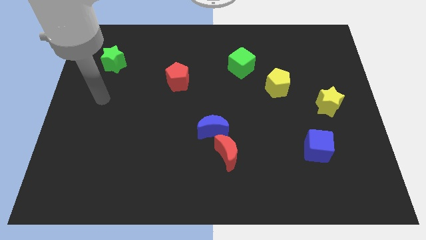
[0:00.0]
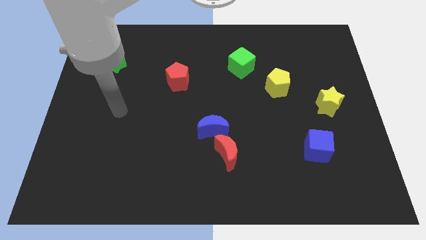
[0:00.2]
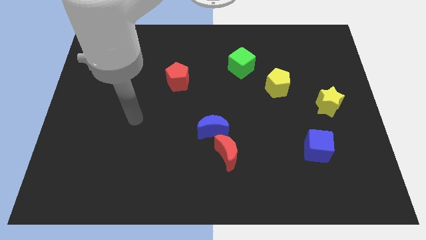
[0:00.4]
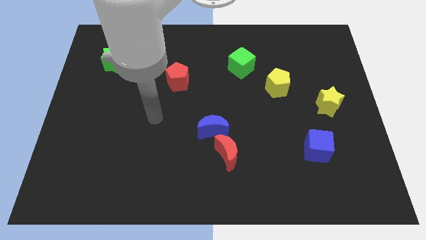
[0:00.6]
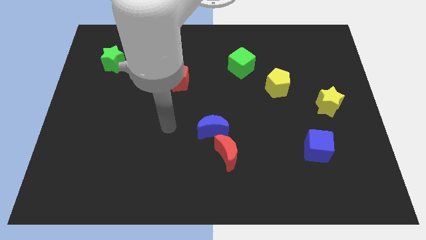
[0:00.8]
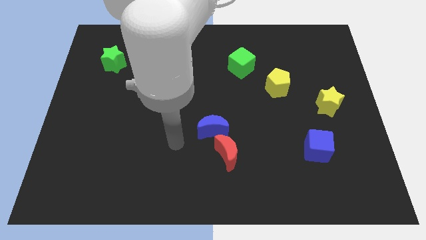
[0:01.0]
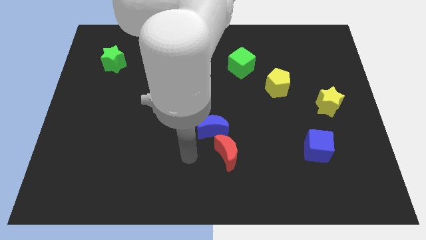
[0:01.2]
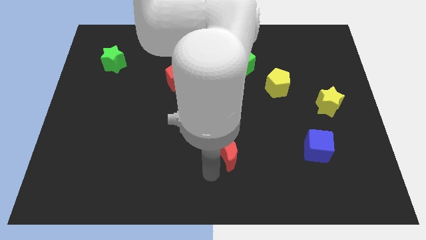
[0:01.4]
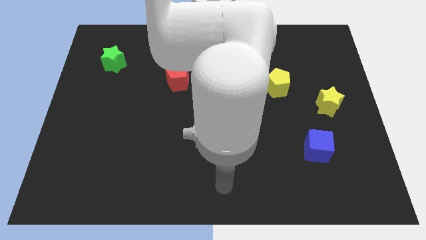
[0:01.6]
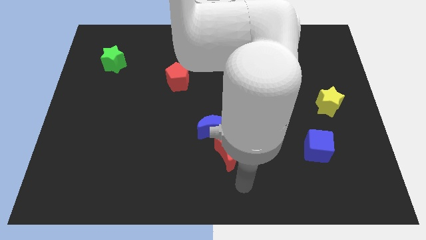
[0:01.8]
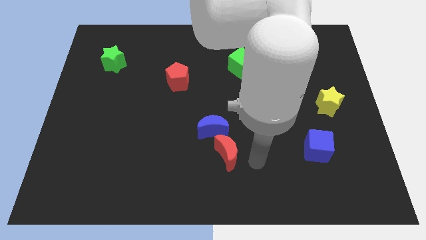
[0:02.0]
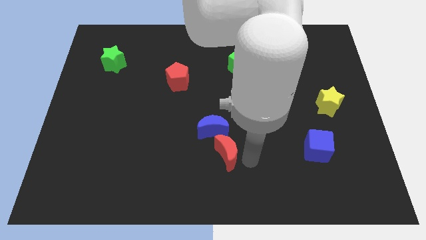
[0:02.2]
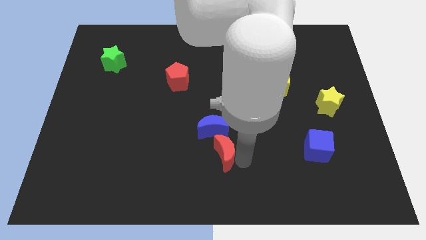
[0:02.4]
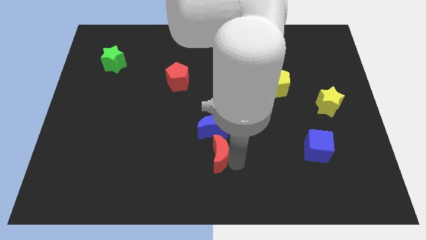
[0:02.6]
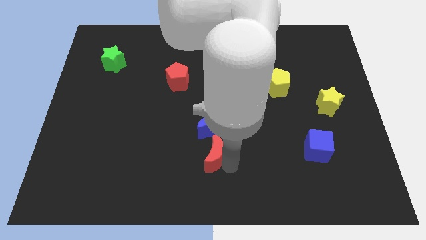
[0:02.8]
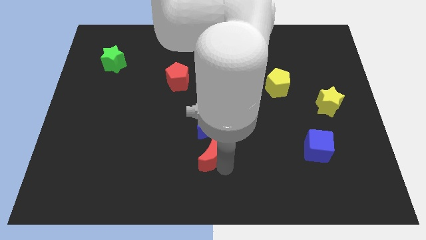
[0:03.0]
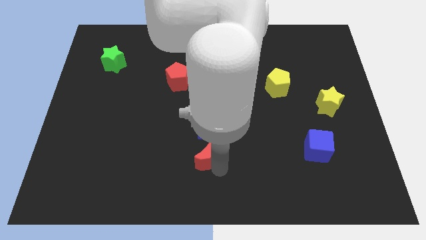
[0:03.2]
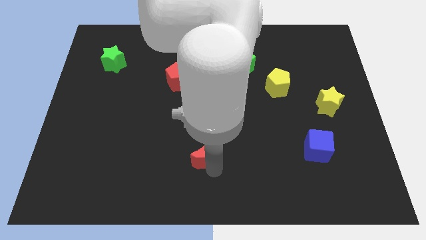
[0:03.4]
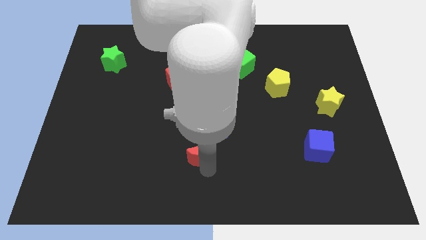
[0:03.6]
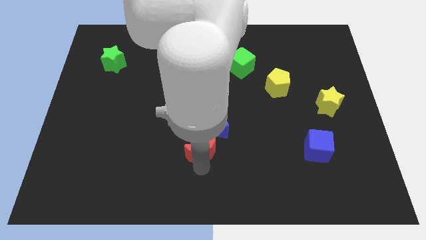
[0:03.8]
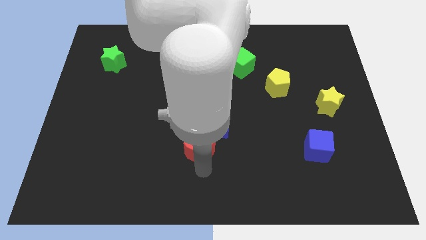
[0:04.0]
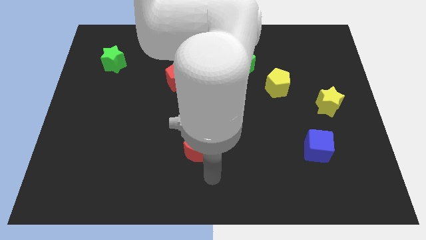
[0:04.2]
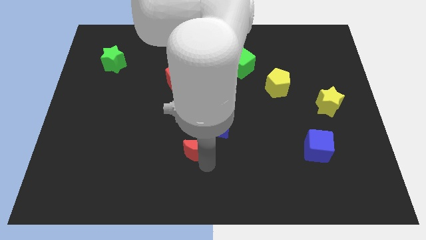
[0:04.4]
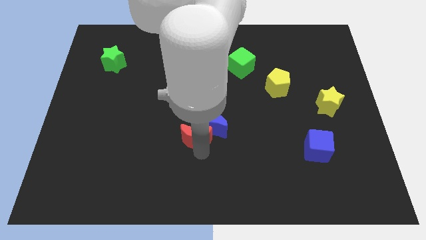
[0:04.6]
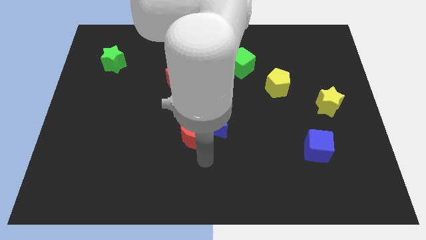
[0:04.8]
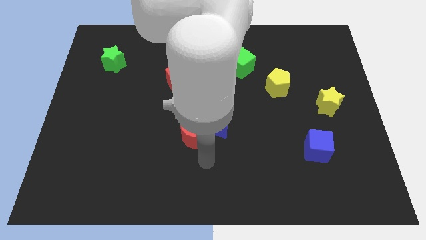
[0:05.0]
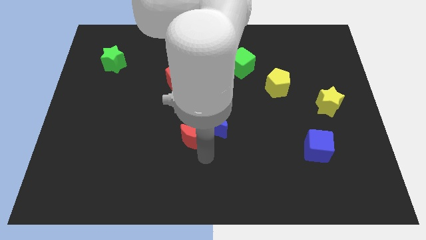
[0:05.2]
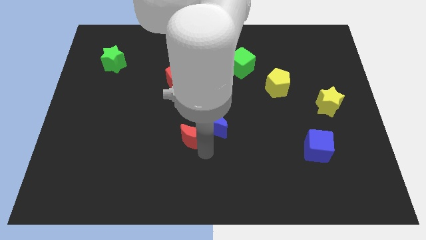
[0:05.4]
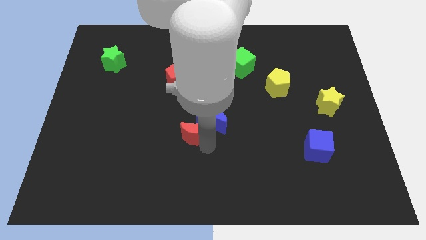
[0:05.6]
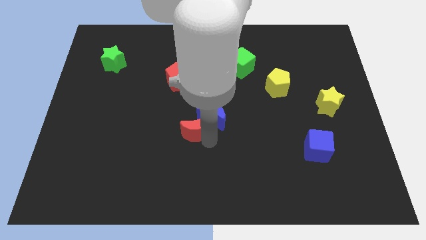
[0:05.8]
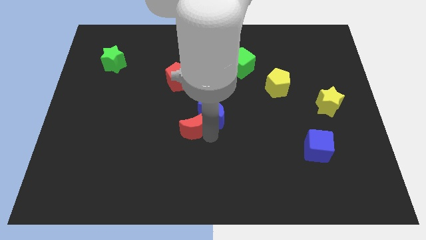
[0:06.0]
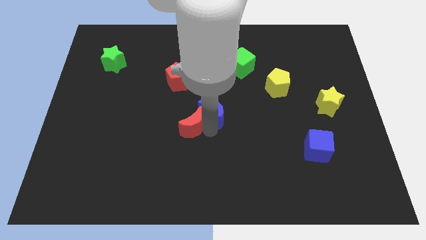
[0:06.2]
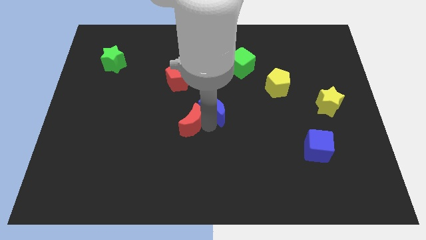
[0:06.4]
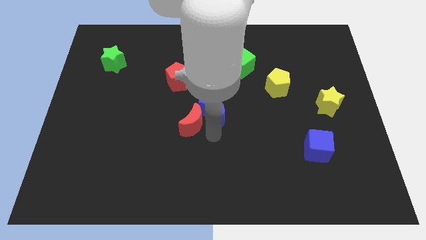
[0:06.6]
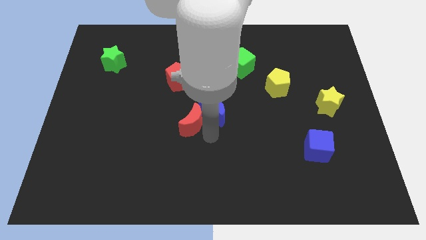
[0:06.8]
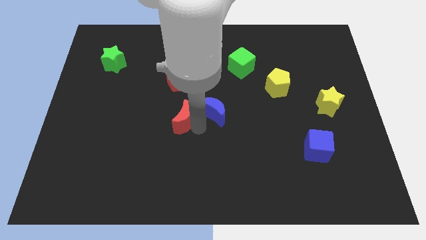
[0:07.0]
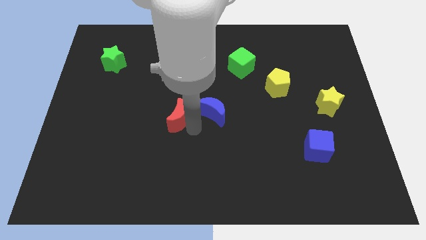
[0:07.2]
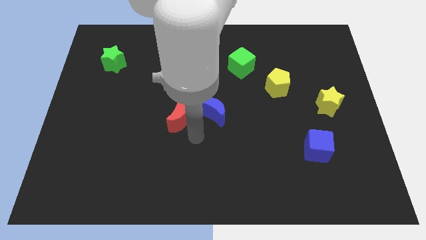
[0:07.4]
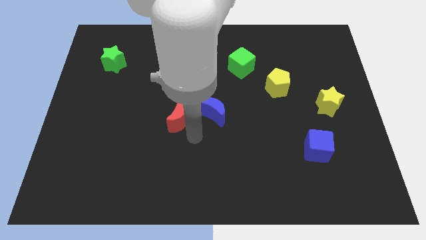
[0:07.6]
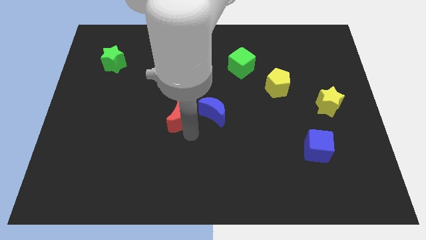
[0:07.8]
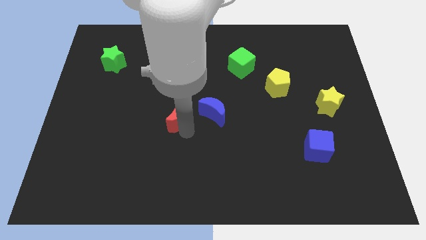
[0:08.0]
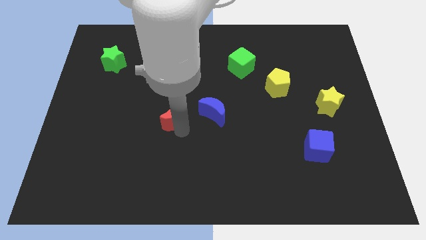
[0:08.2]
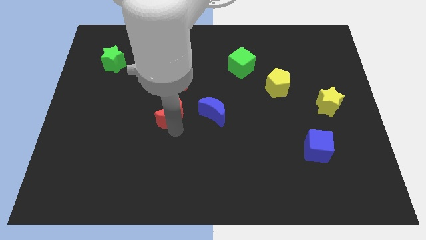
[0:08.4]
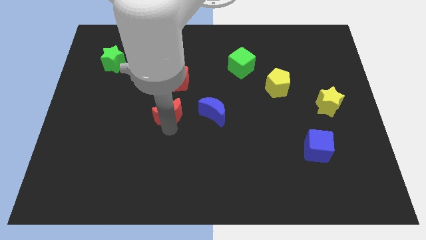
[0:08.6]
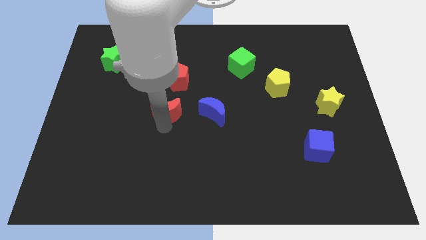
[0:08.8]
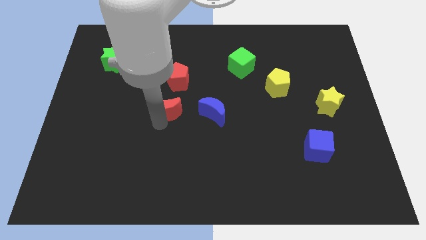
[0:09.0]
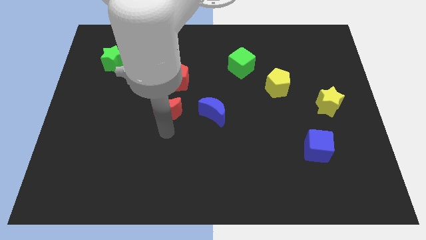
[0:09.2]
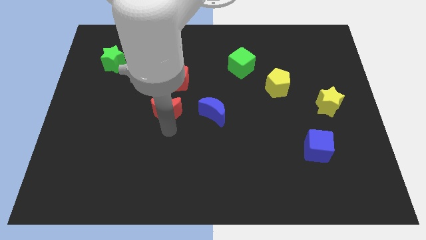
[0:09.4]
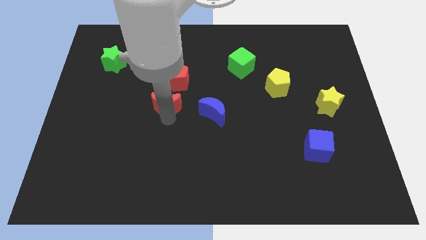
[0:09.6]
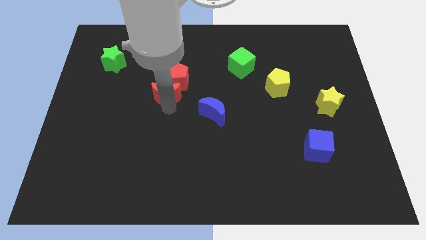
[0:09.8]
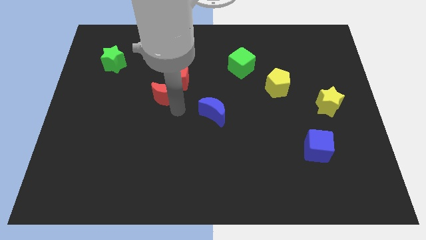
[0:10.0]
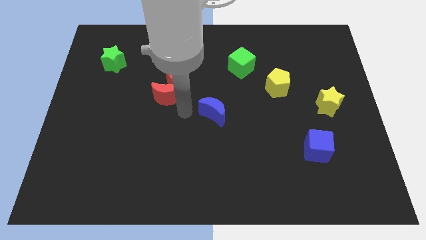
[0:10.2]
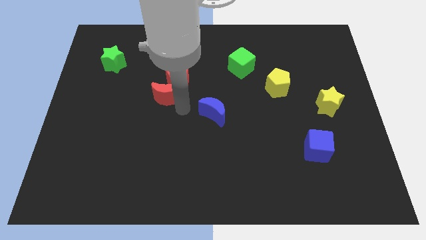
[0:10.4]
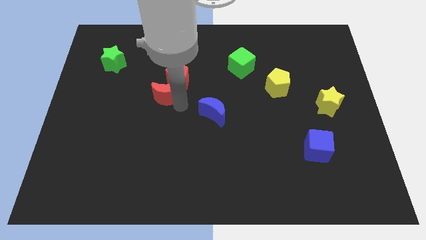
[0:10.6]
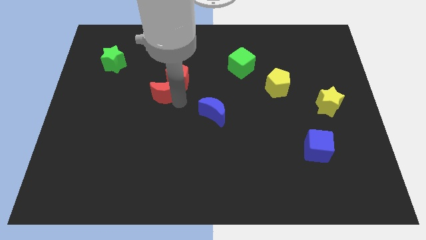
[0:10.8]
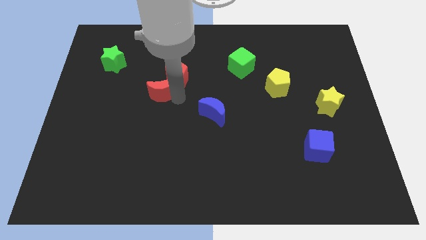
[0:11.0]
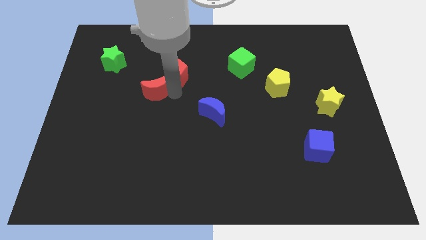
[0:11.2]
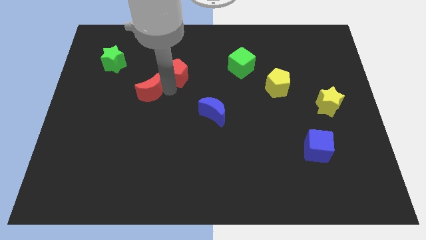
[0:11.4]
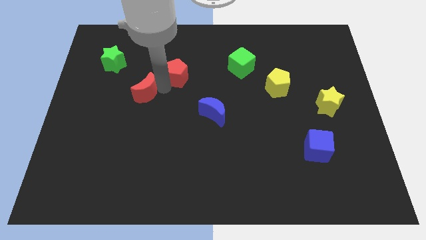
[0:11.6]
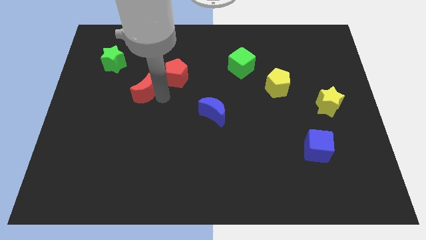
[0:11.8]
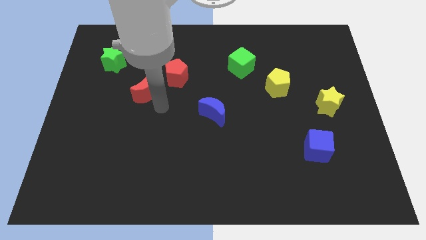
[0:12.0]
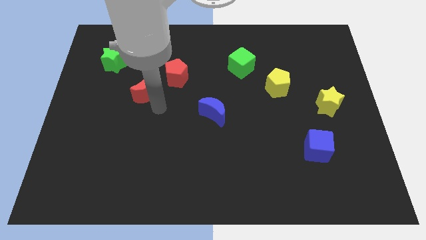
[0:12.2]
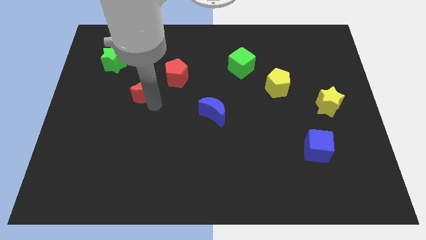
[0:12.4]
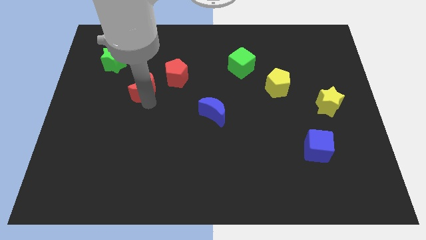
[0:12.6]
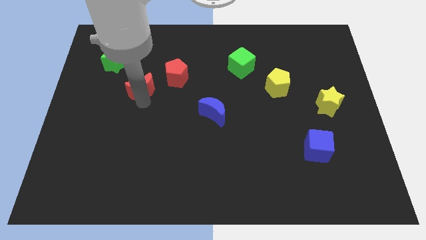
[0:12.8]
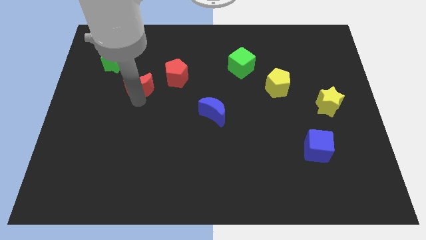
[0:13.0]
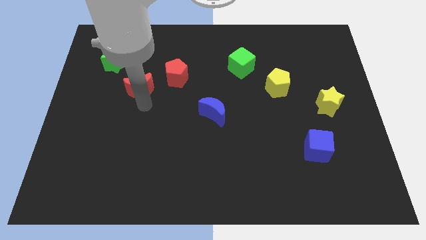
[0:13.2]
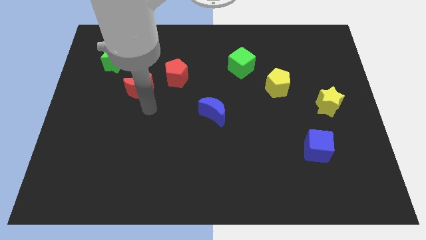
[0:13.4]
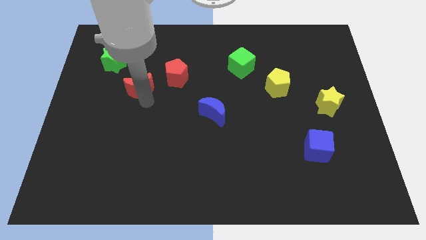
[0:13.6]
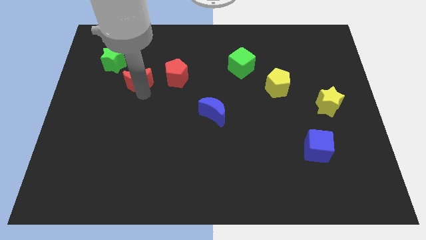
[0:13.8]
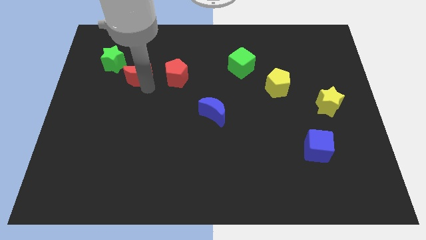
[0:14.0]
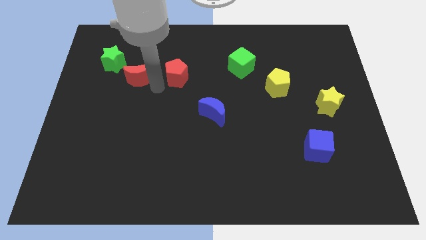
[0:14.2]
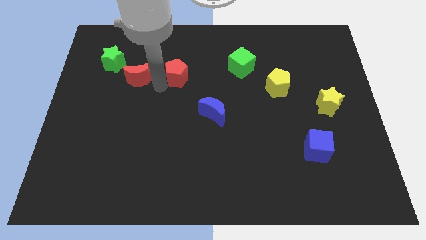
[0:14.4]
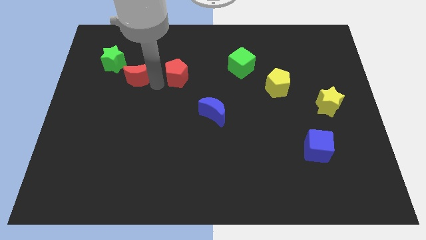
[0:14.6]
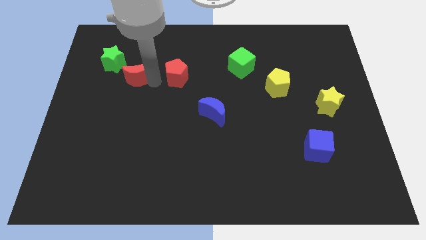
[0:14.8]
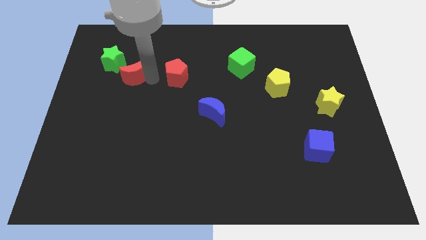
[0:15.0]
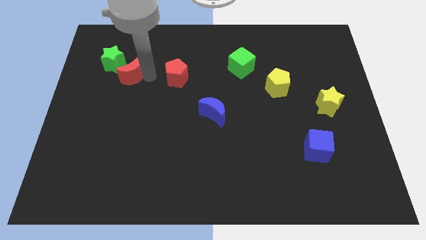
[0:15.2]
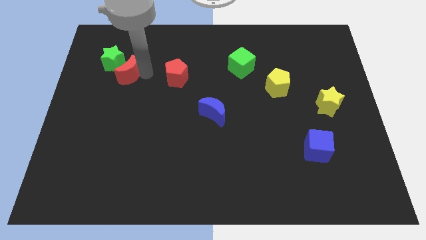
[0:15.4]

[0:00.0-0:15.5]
push the red moon close to the green star
